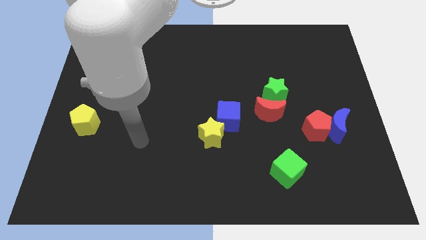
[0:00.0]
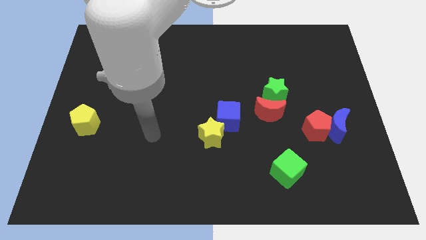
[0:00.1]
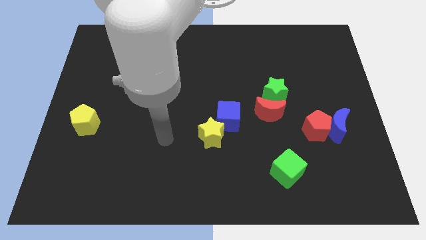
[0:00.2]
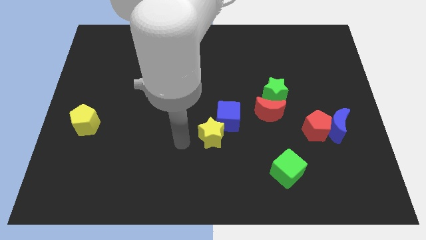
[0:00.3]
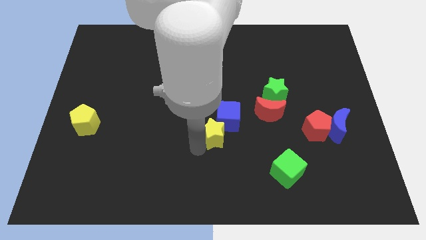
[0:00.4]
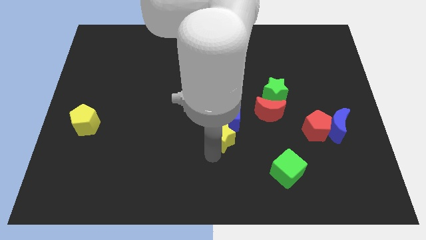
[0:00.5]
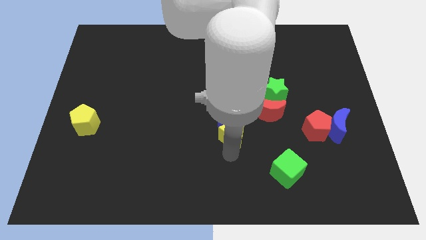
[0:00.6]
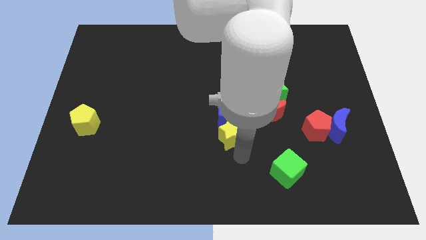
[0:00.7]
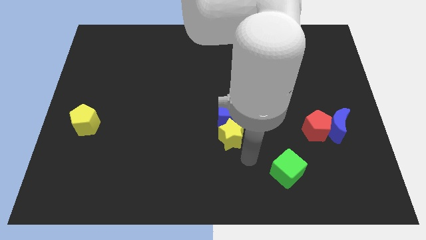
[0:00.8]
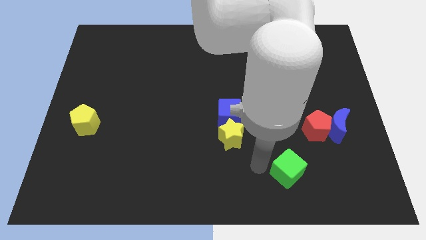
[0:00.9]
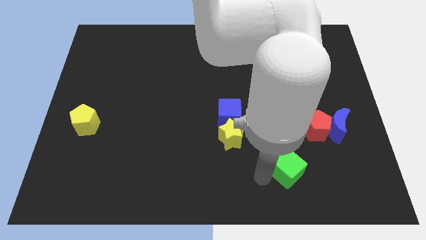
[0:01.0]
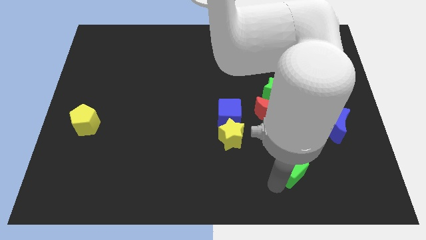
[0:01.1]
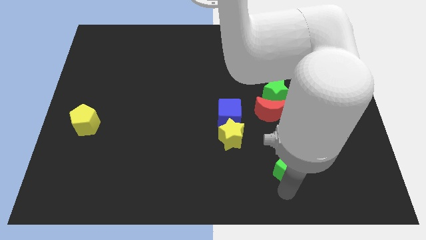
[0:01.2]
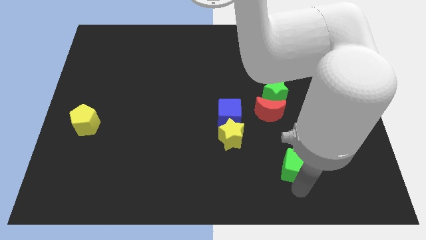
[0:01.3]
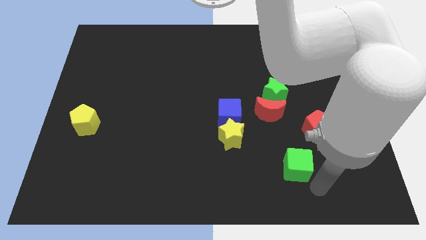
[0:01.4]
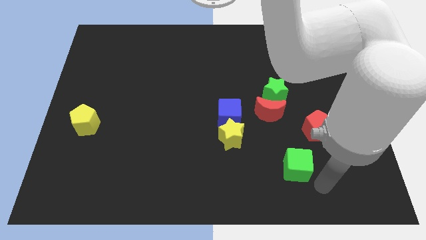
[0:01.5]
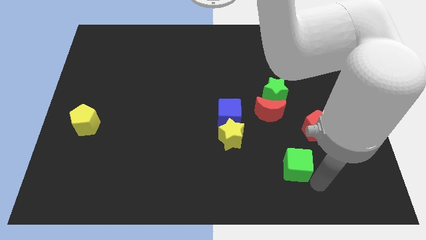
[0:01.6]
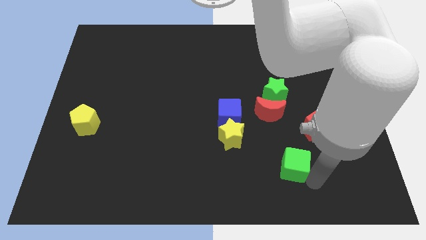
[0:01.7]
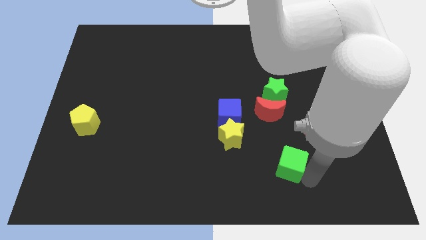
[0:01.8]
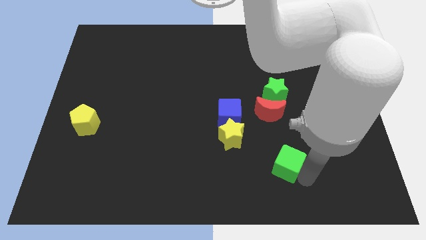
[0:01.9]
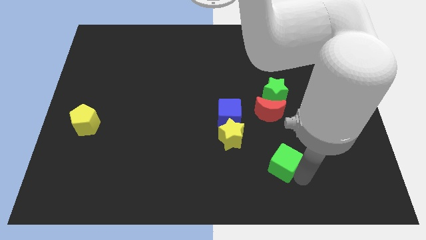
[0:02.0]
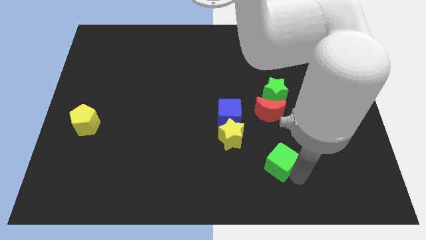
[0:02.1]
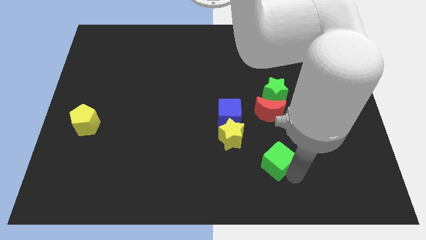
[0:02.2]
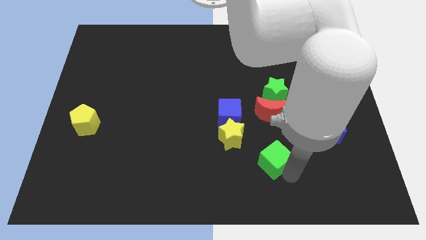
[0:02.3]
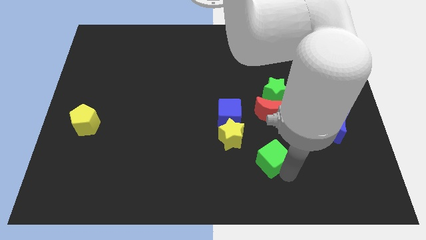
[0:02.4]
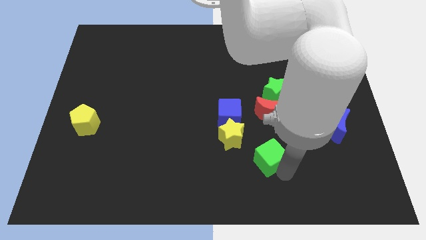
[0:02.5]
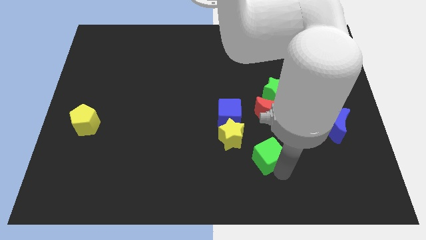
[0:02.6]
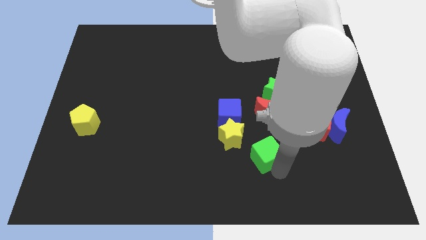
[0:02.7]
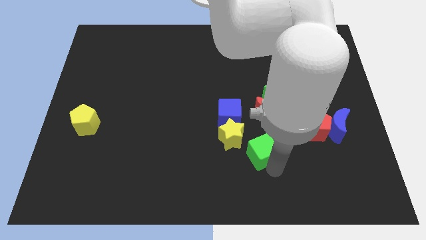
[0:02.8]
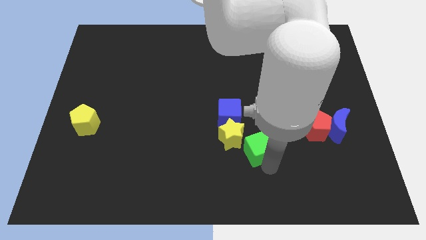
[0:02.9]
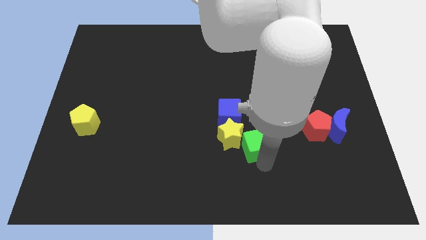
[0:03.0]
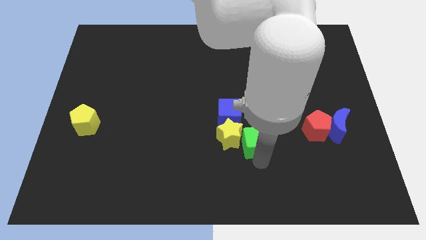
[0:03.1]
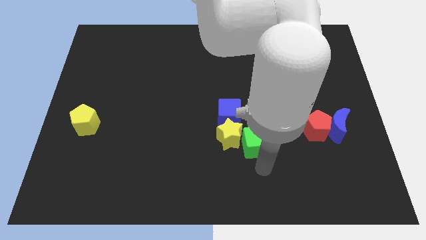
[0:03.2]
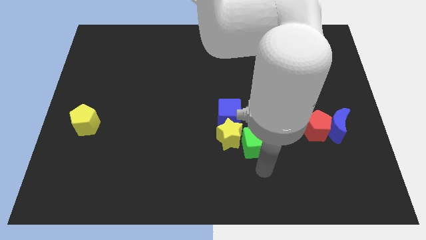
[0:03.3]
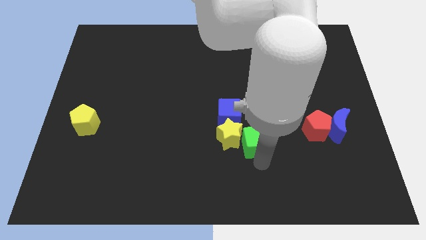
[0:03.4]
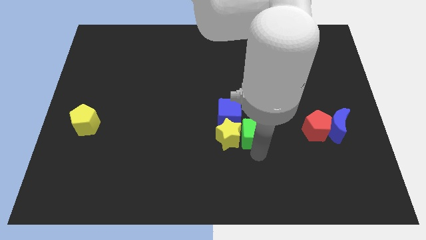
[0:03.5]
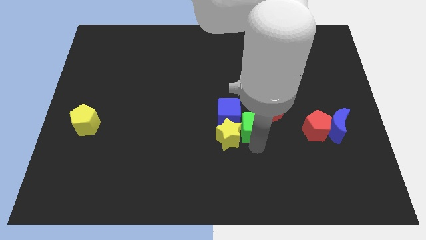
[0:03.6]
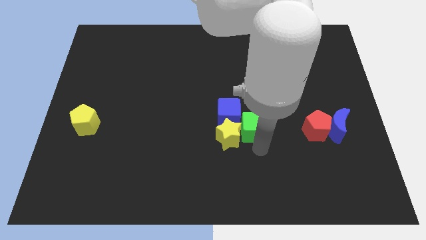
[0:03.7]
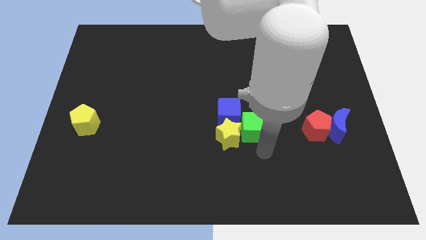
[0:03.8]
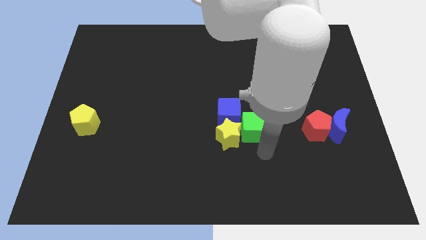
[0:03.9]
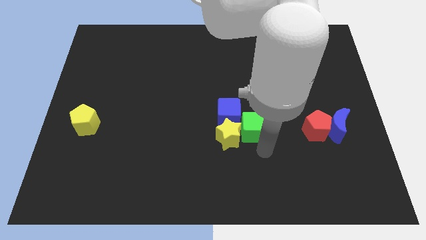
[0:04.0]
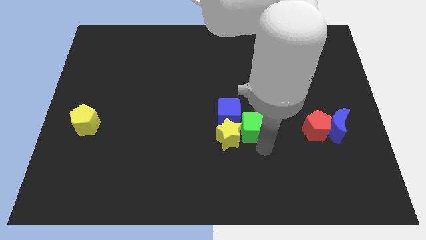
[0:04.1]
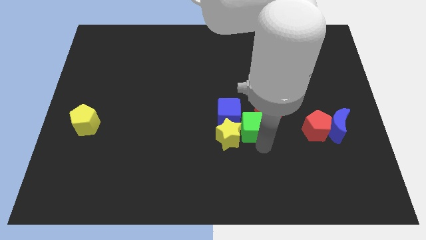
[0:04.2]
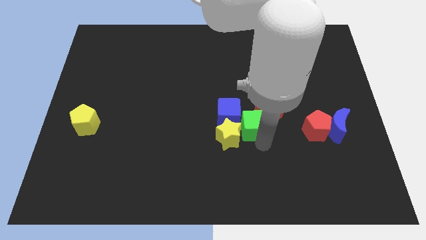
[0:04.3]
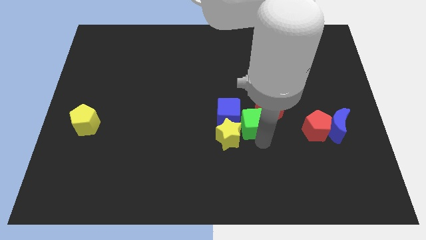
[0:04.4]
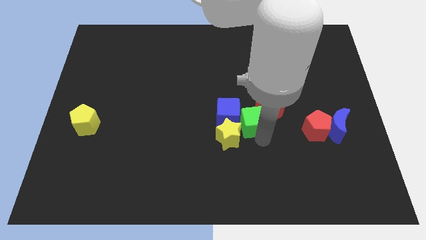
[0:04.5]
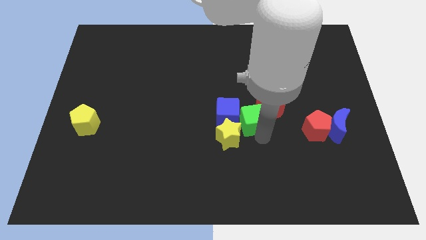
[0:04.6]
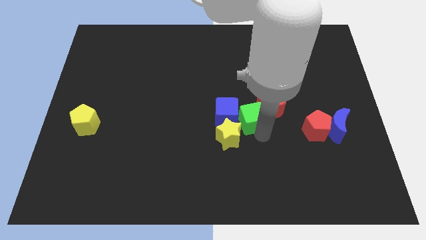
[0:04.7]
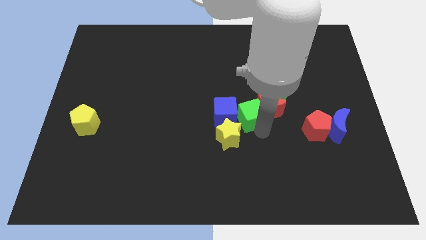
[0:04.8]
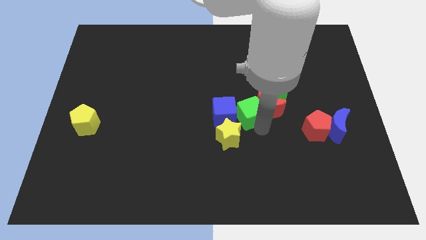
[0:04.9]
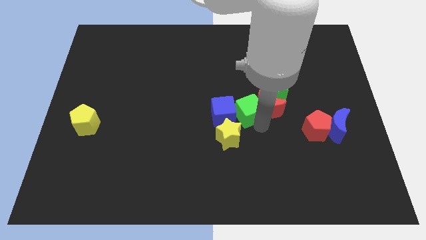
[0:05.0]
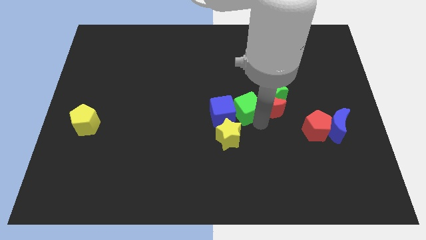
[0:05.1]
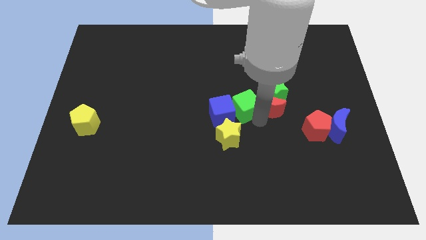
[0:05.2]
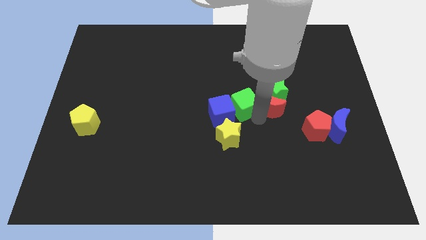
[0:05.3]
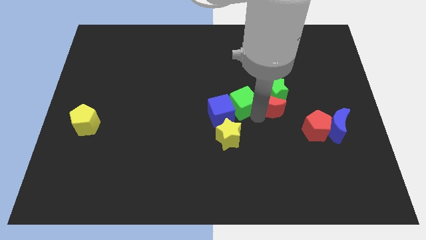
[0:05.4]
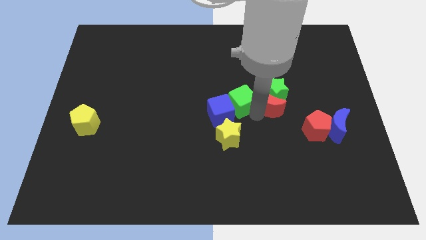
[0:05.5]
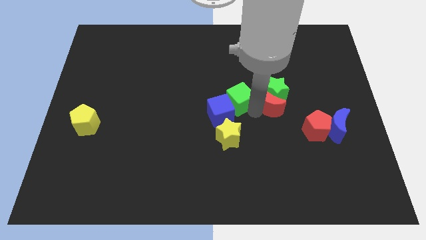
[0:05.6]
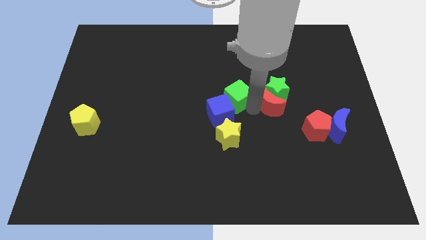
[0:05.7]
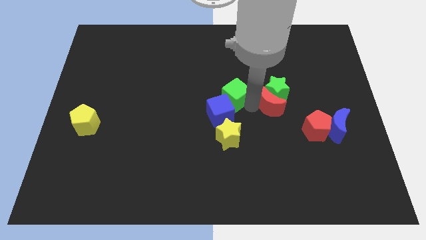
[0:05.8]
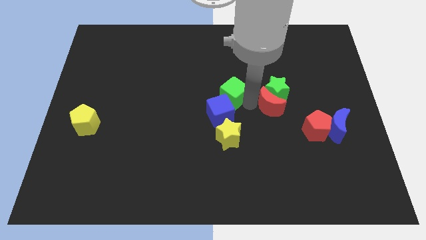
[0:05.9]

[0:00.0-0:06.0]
push the green cube up and then to the left

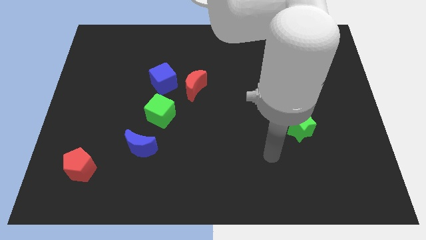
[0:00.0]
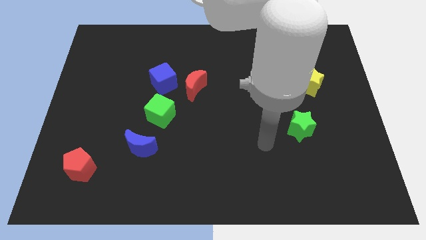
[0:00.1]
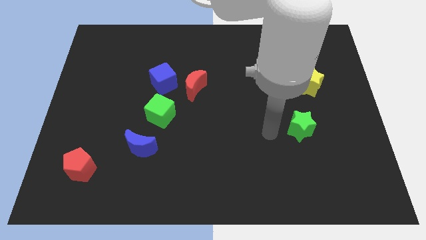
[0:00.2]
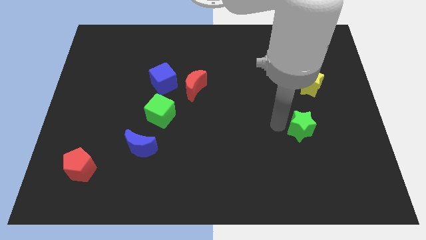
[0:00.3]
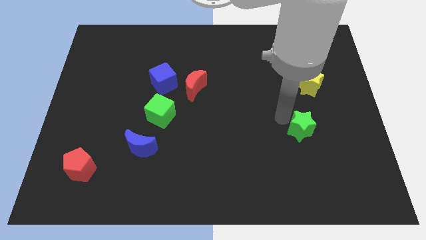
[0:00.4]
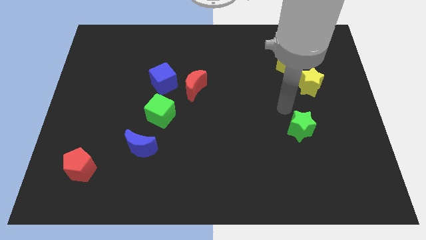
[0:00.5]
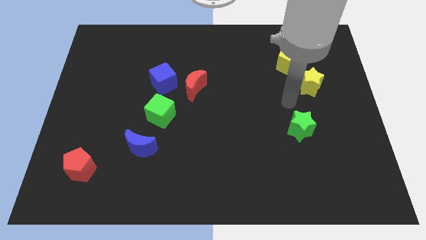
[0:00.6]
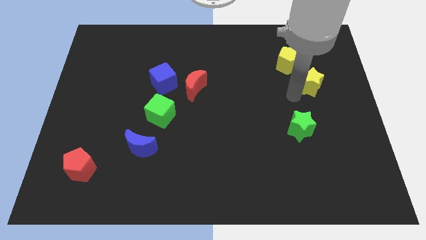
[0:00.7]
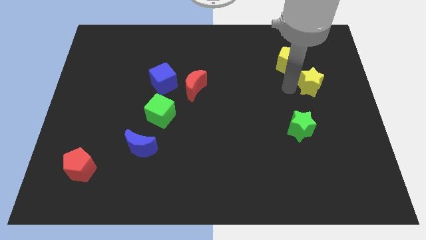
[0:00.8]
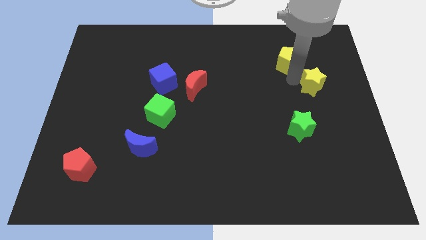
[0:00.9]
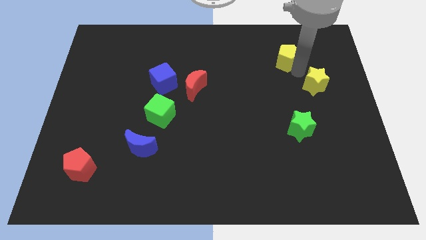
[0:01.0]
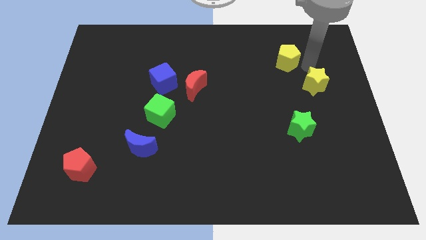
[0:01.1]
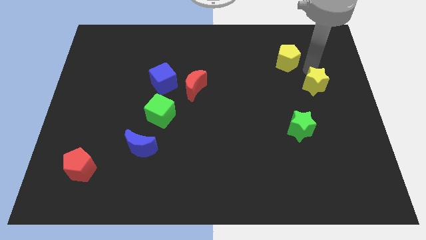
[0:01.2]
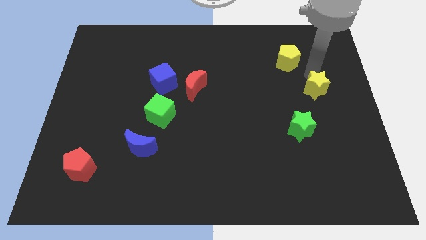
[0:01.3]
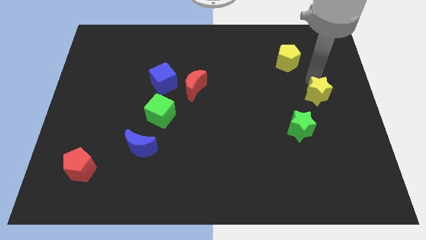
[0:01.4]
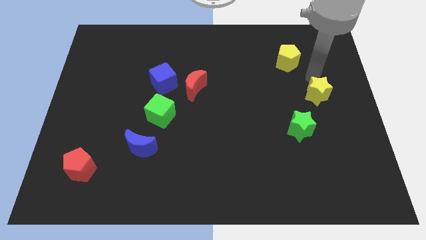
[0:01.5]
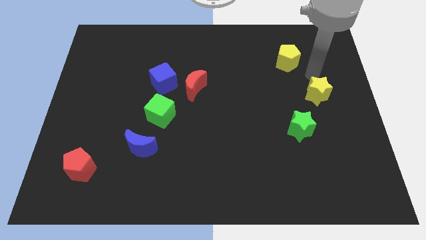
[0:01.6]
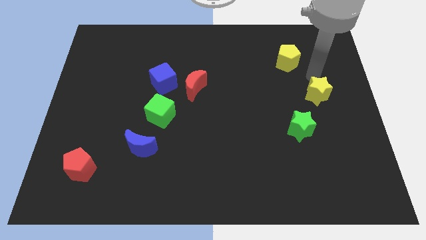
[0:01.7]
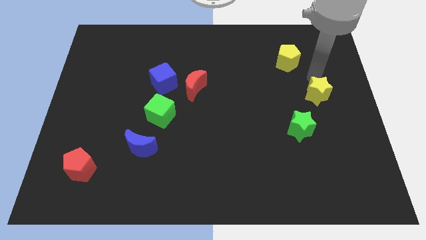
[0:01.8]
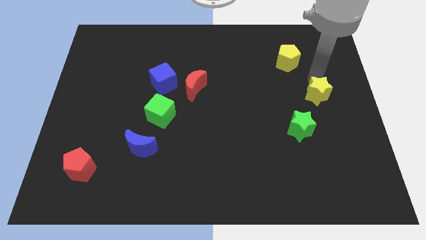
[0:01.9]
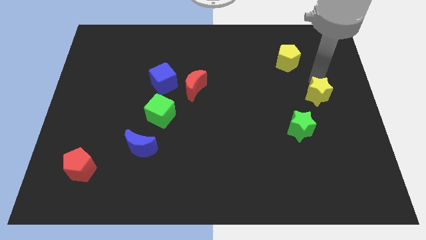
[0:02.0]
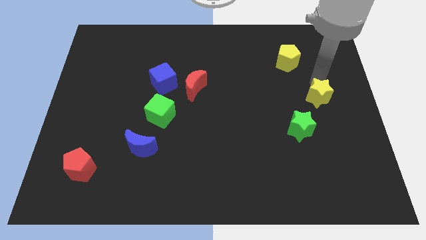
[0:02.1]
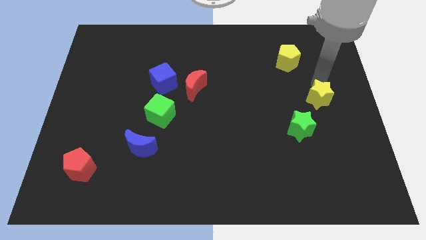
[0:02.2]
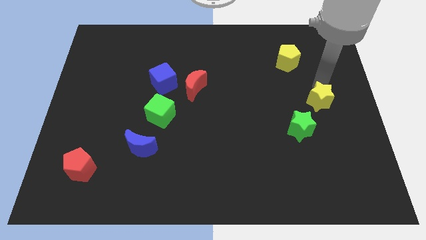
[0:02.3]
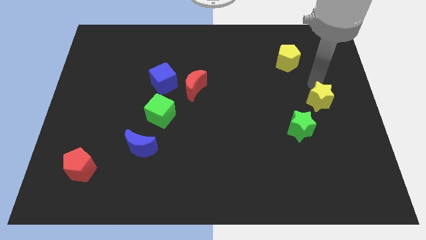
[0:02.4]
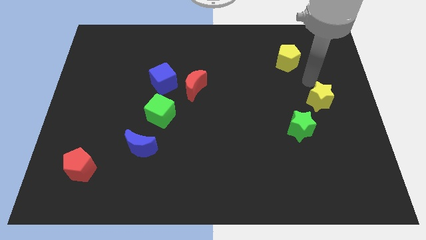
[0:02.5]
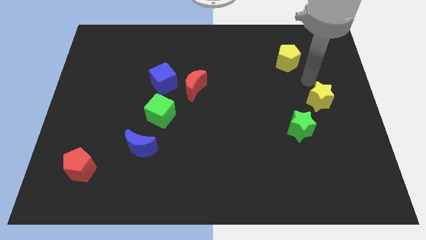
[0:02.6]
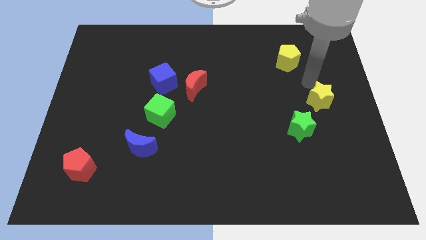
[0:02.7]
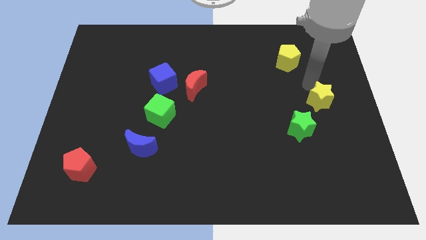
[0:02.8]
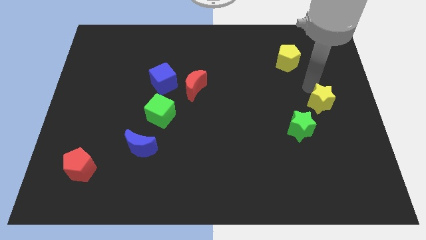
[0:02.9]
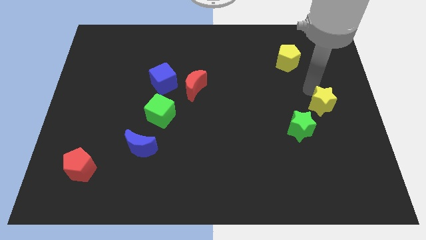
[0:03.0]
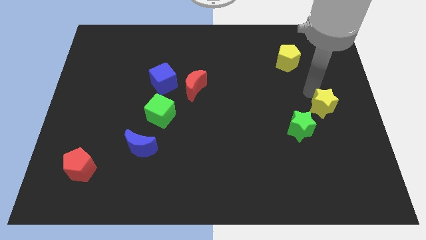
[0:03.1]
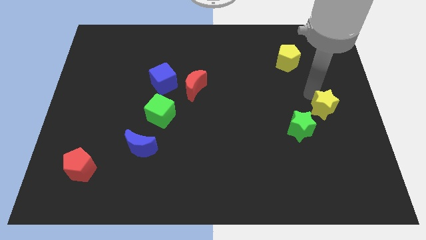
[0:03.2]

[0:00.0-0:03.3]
slightly push the yellow star downwards
